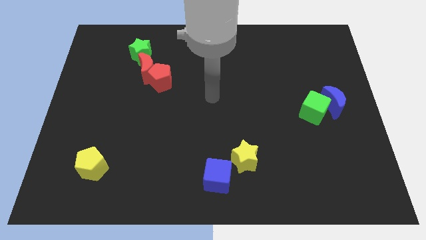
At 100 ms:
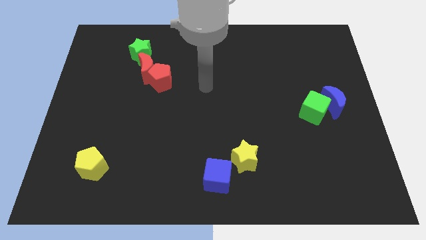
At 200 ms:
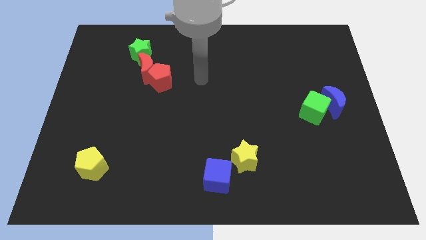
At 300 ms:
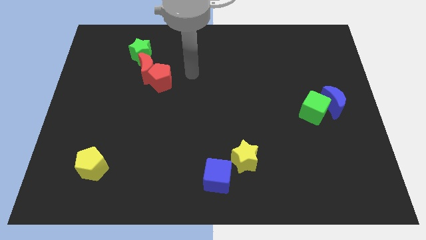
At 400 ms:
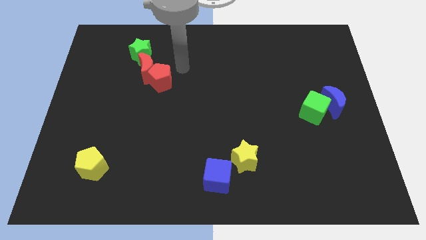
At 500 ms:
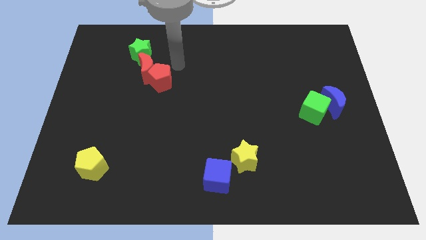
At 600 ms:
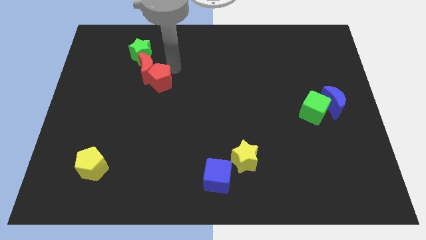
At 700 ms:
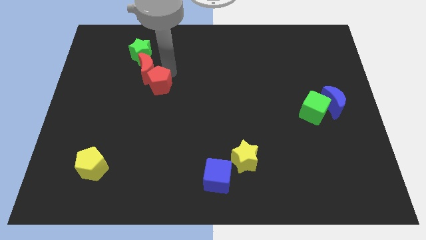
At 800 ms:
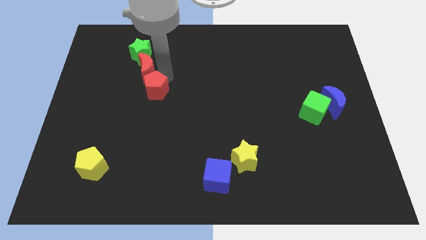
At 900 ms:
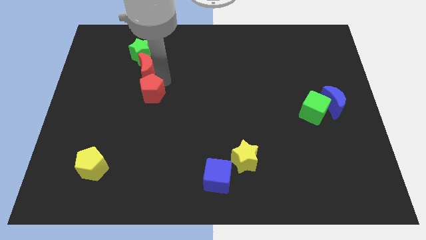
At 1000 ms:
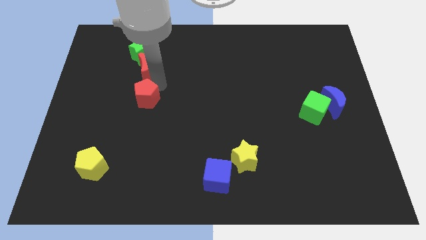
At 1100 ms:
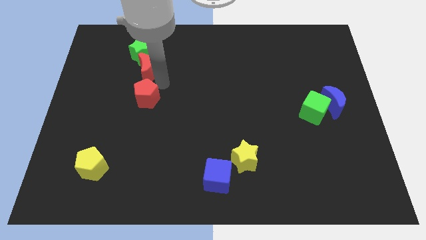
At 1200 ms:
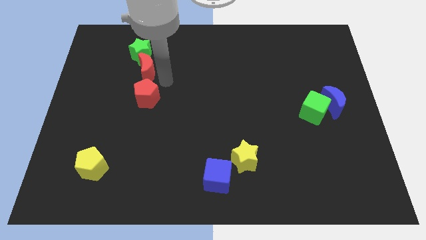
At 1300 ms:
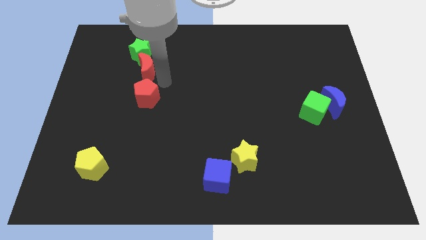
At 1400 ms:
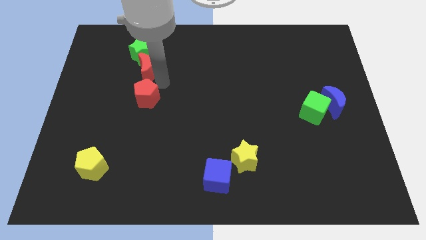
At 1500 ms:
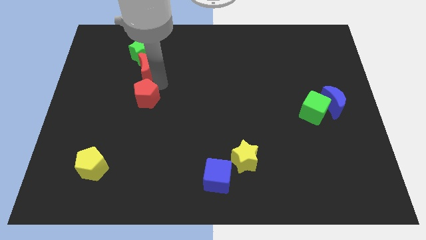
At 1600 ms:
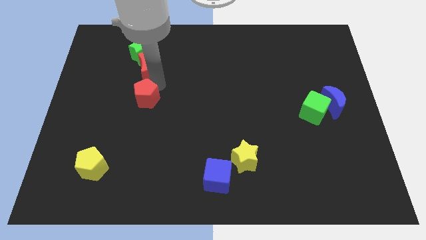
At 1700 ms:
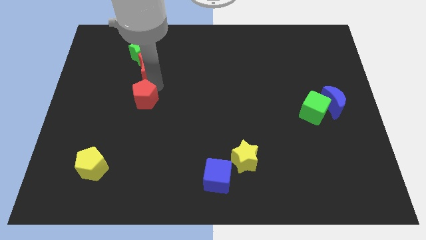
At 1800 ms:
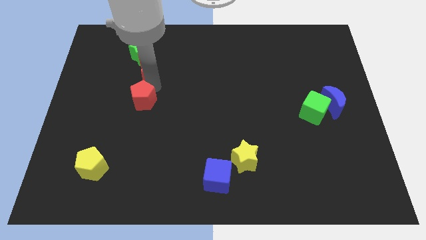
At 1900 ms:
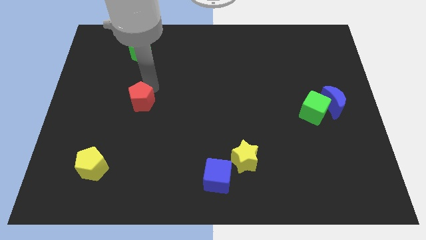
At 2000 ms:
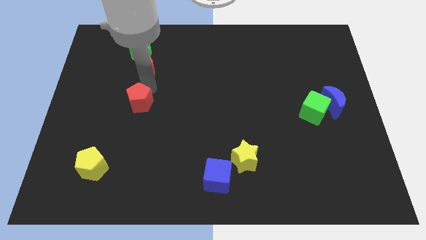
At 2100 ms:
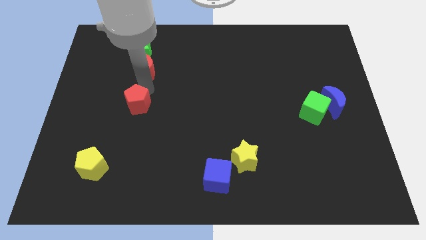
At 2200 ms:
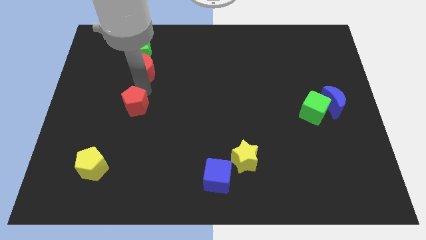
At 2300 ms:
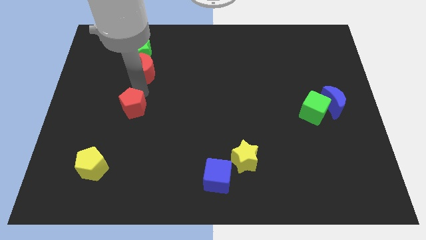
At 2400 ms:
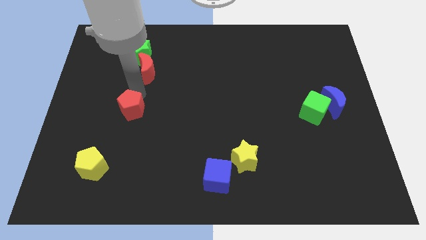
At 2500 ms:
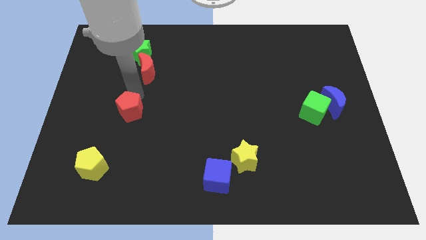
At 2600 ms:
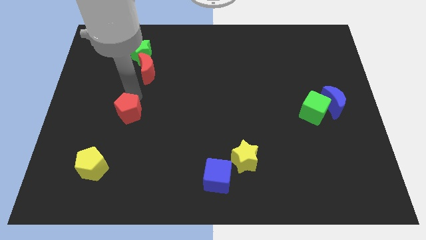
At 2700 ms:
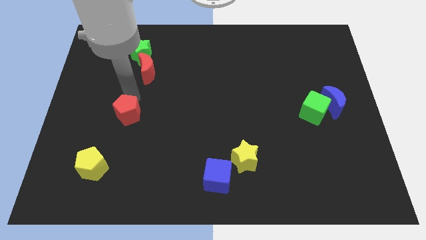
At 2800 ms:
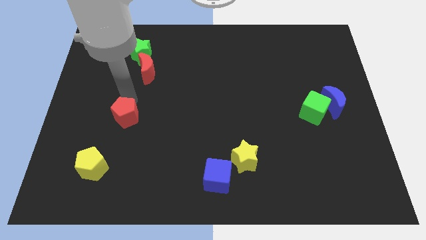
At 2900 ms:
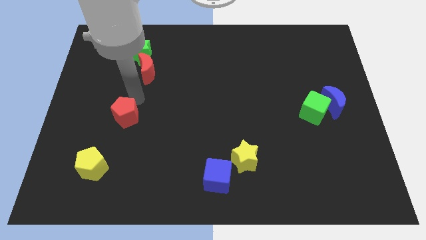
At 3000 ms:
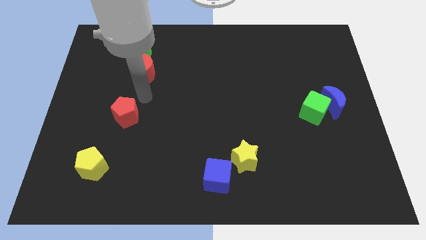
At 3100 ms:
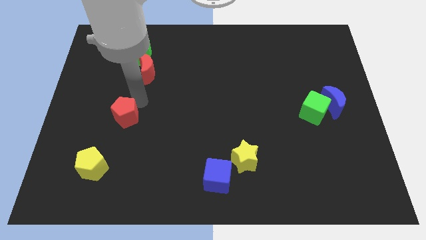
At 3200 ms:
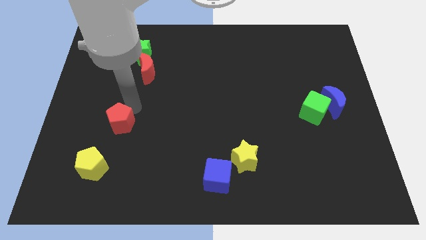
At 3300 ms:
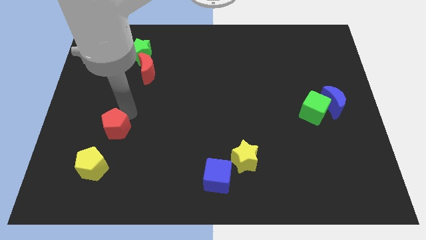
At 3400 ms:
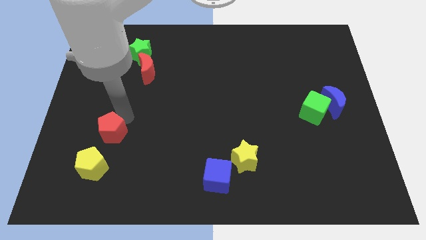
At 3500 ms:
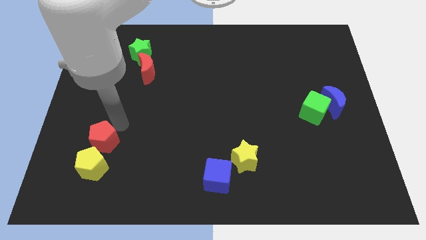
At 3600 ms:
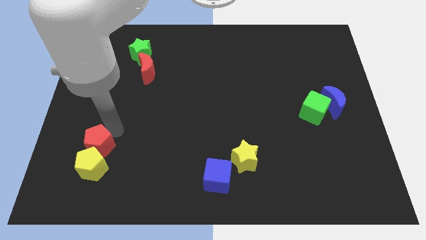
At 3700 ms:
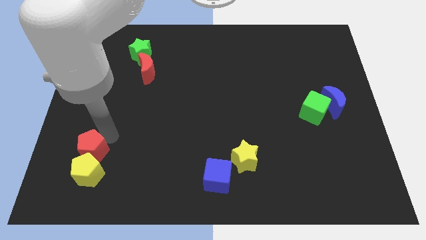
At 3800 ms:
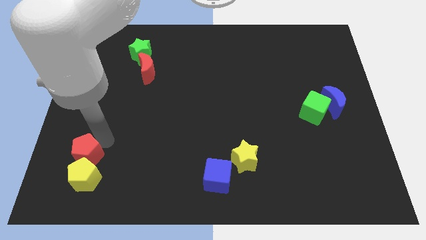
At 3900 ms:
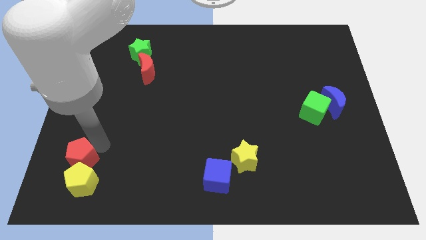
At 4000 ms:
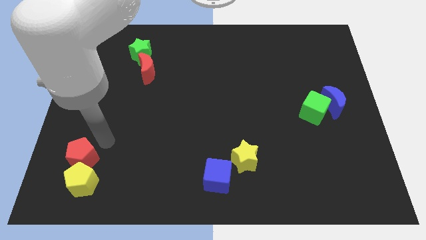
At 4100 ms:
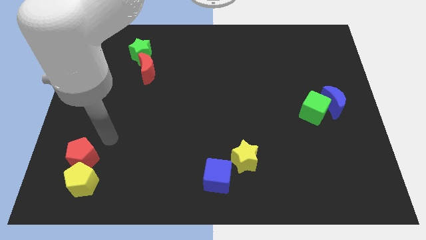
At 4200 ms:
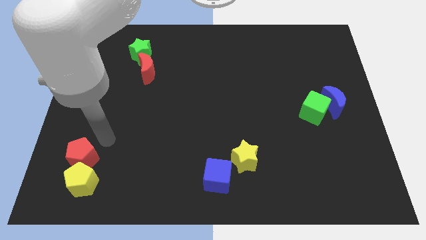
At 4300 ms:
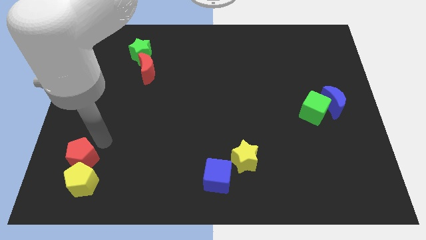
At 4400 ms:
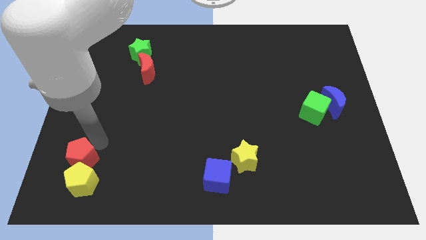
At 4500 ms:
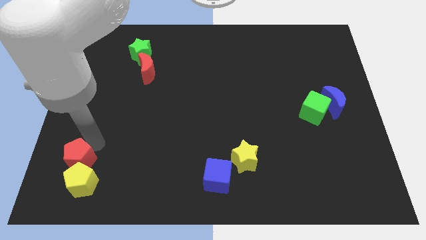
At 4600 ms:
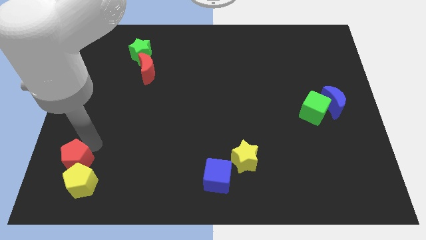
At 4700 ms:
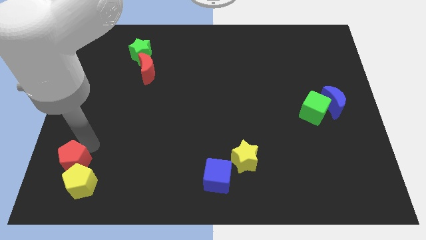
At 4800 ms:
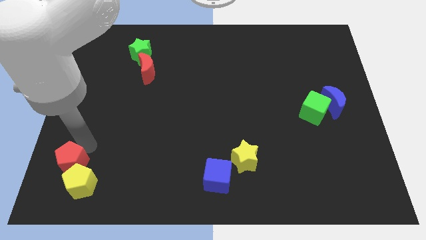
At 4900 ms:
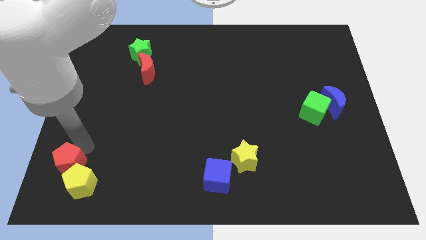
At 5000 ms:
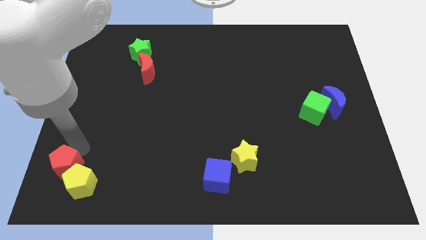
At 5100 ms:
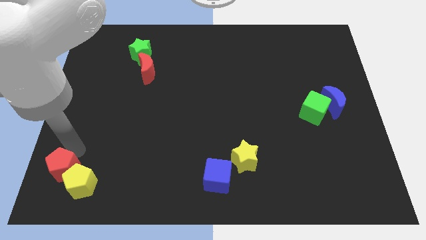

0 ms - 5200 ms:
move the red pentagon to the bottom left corner
